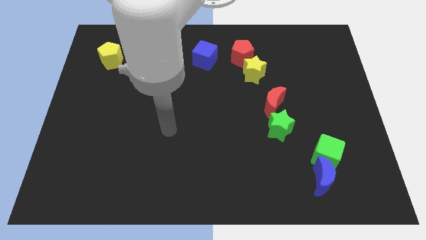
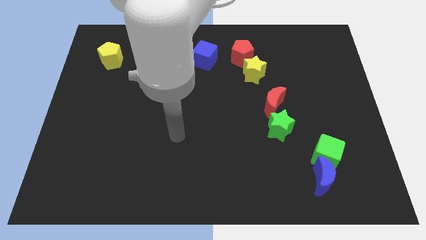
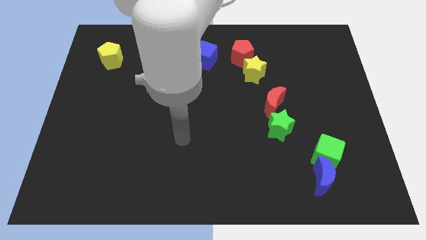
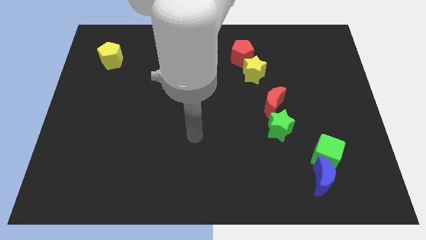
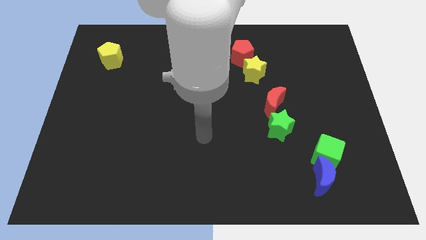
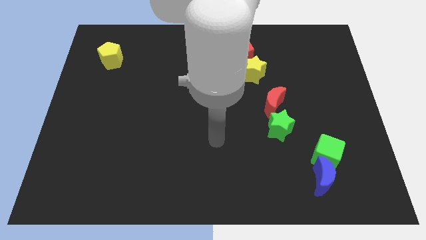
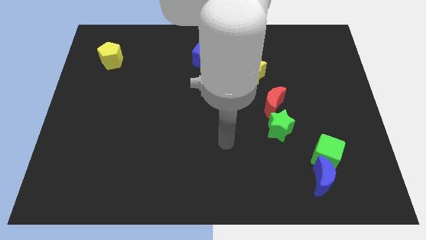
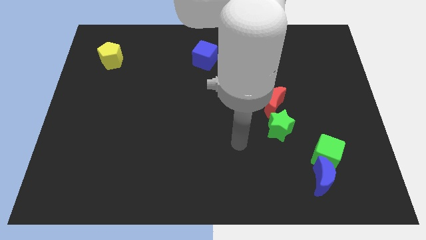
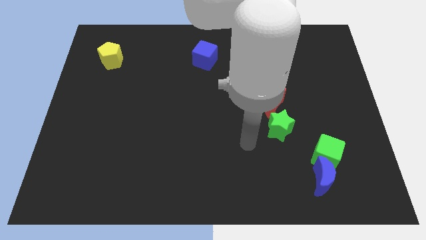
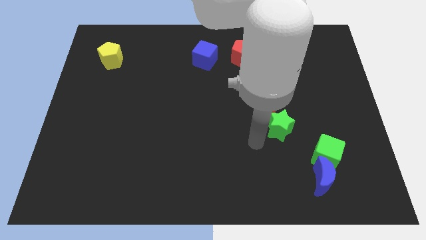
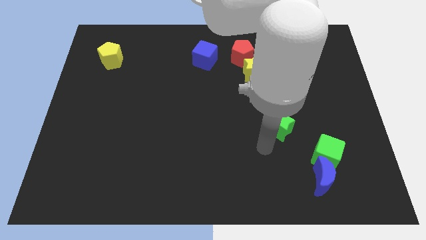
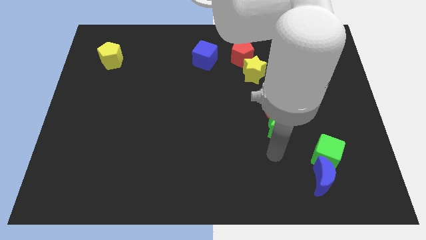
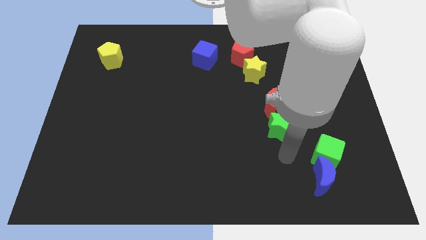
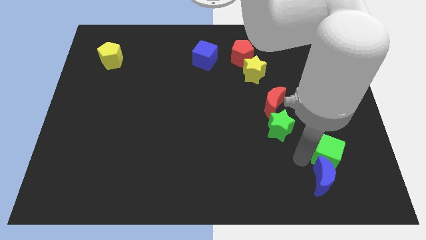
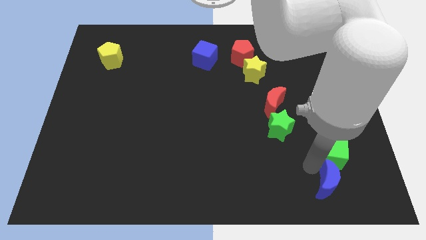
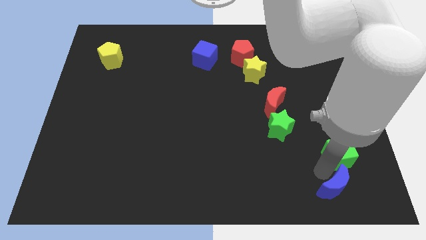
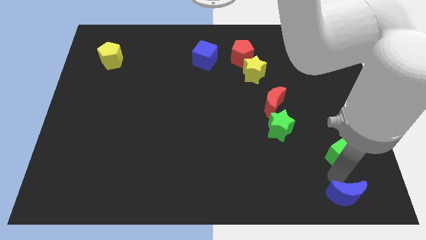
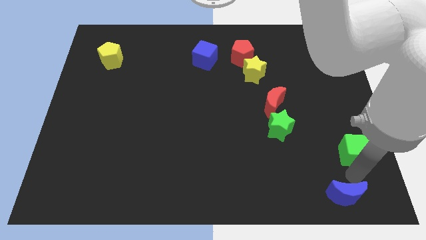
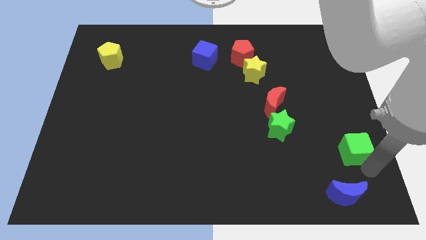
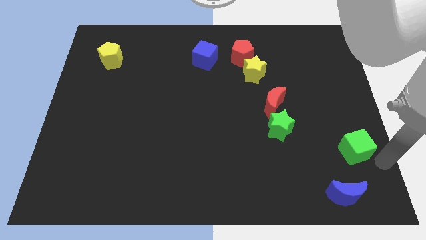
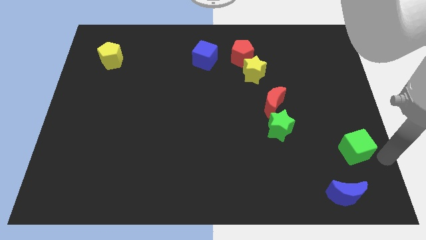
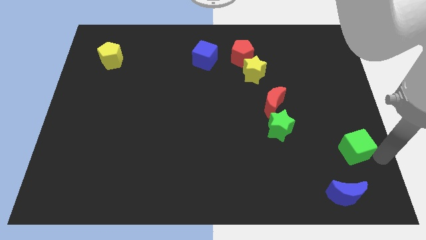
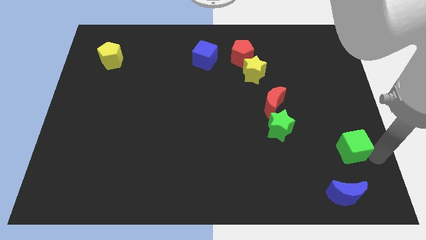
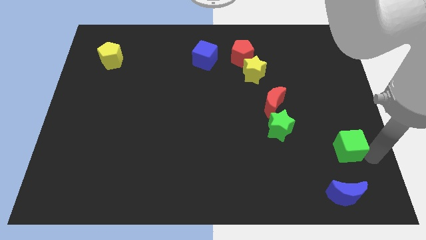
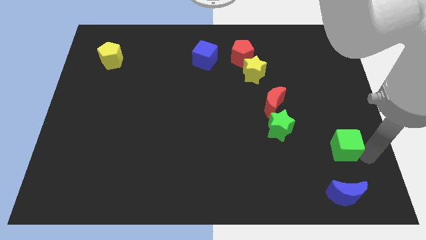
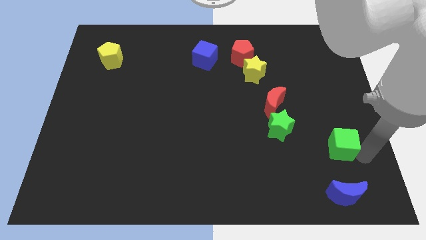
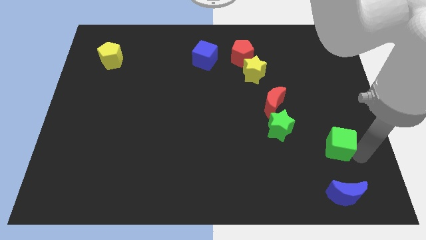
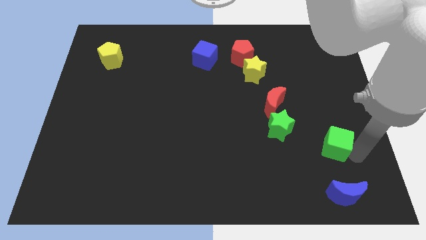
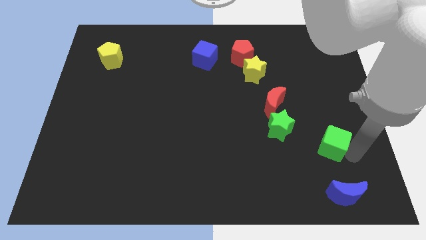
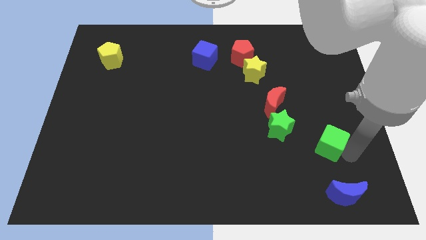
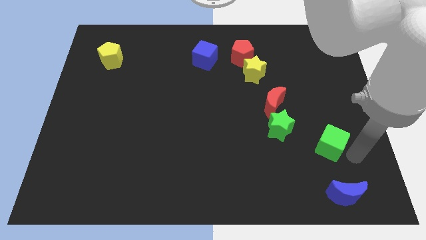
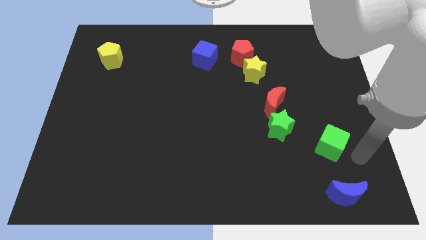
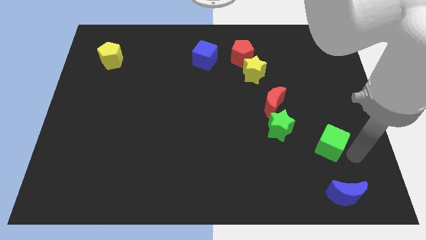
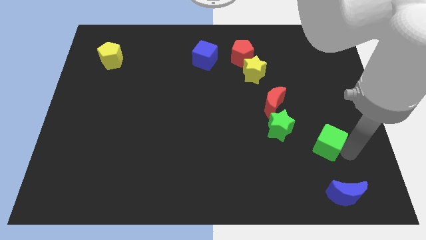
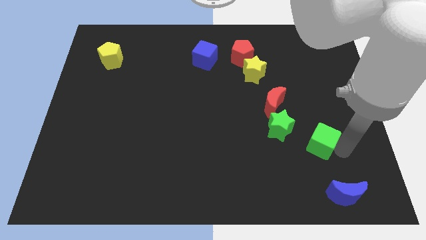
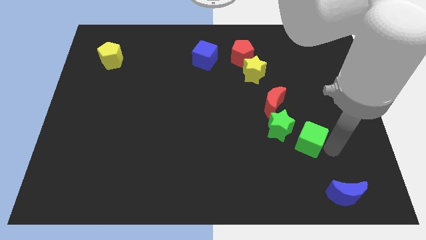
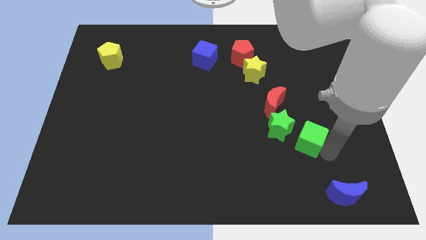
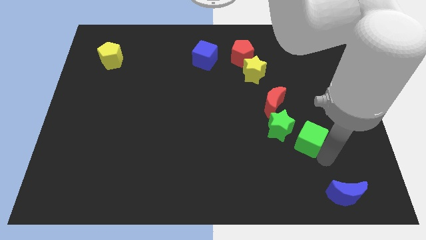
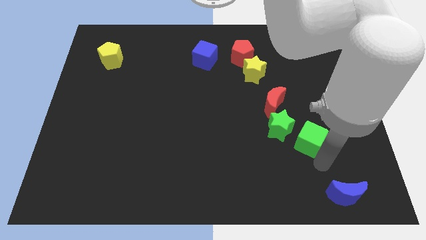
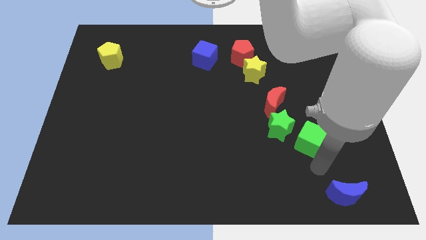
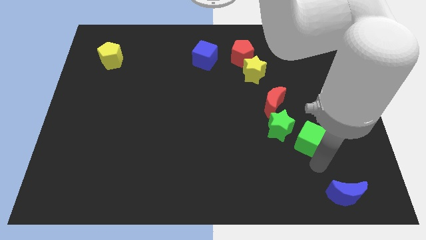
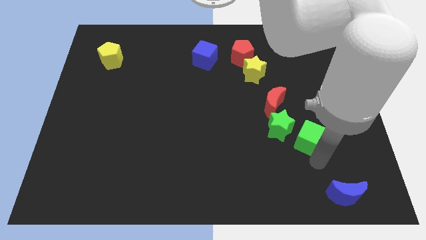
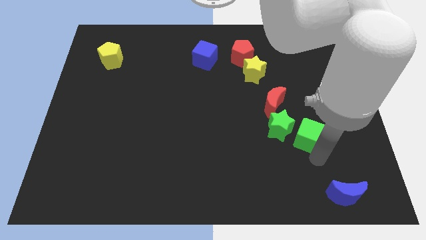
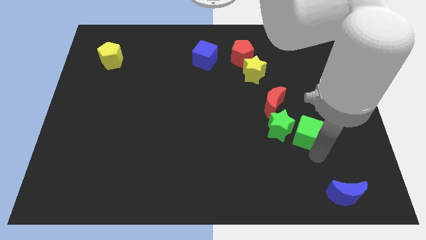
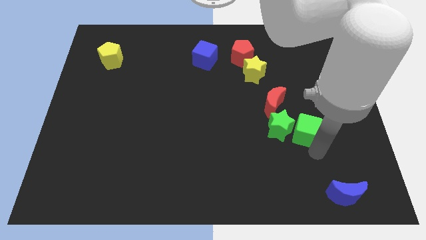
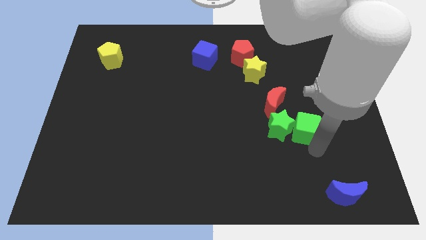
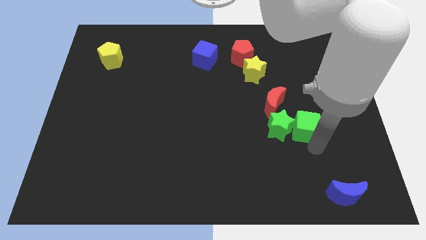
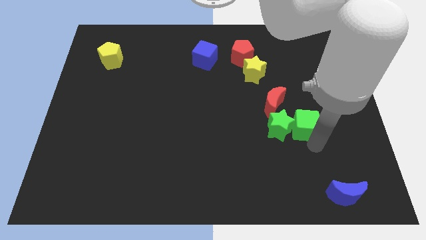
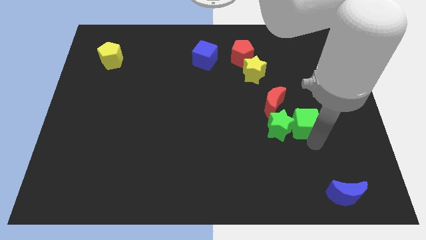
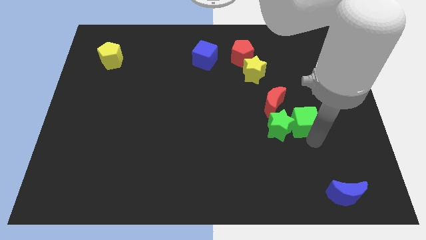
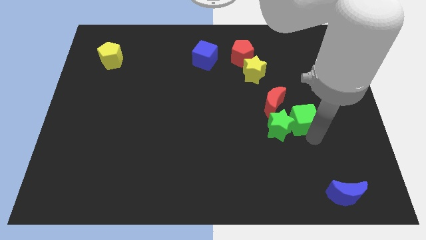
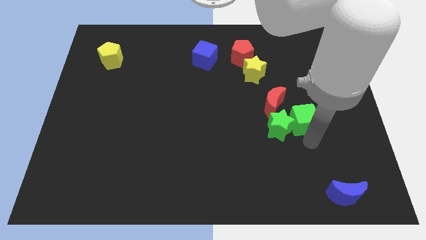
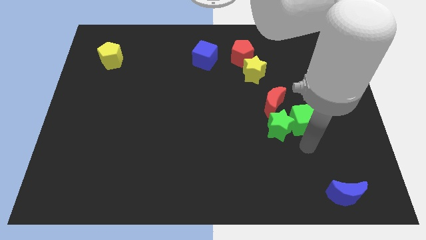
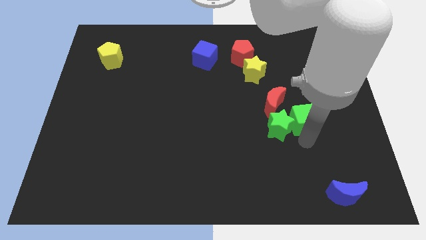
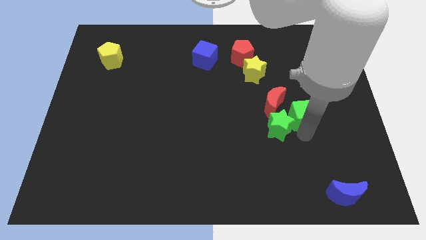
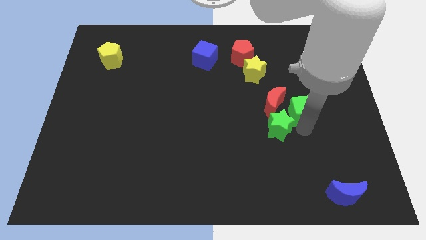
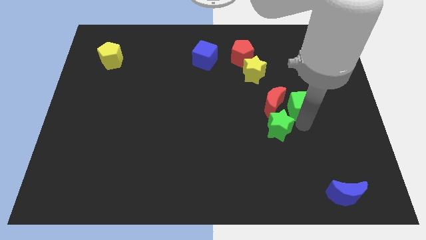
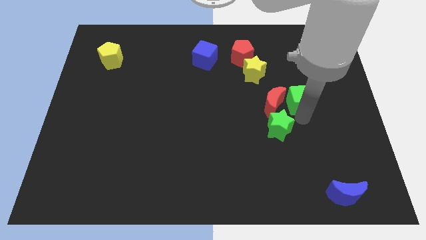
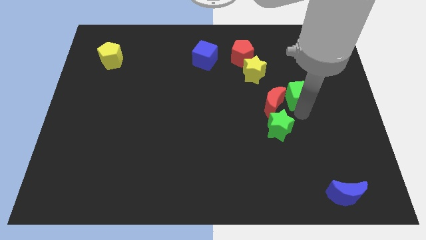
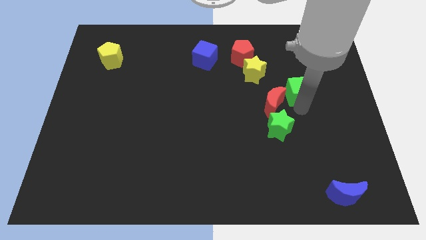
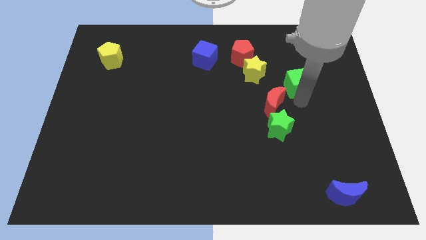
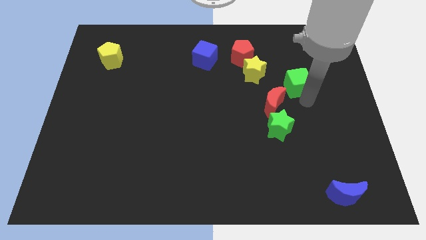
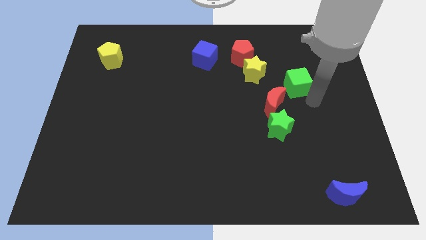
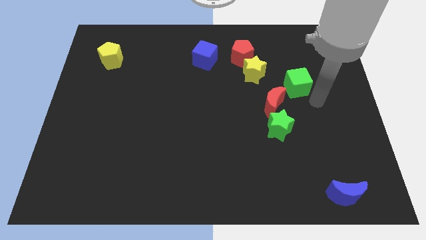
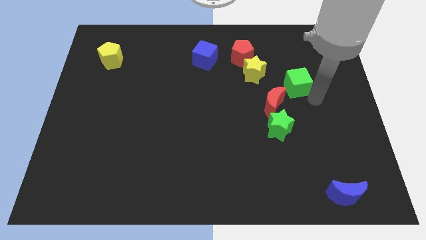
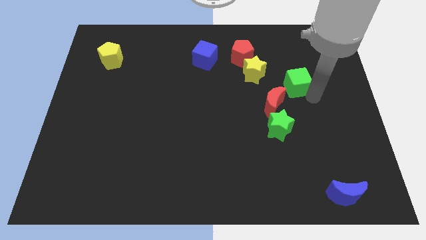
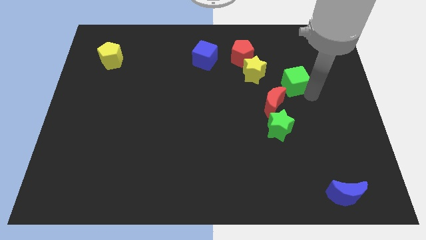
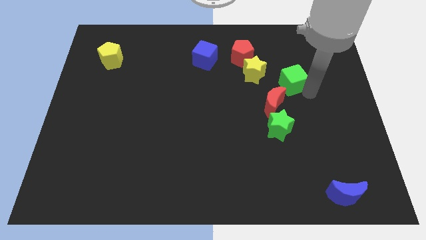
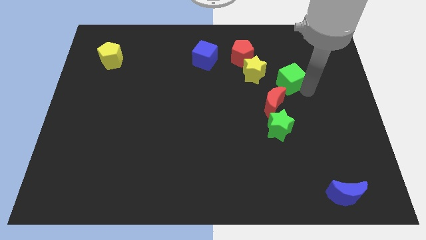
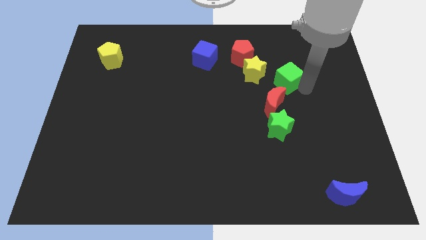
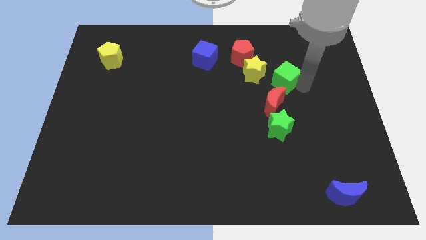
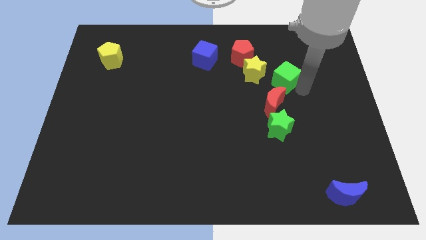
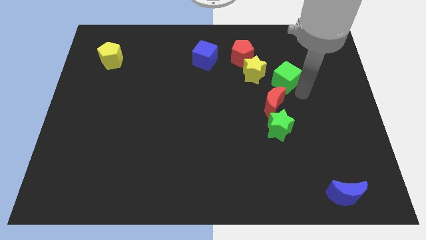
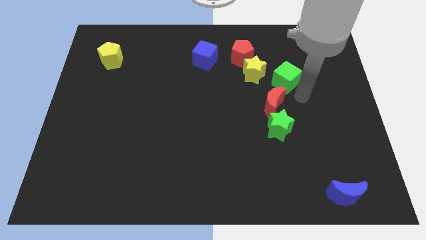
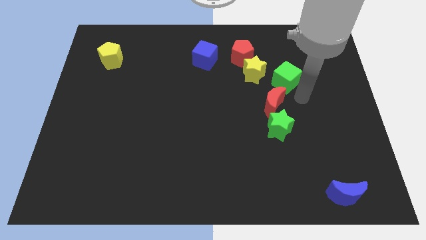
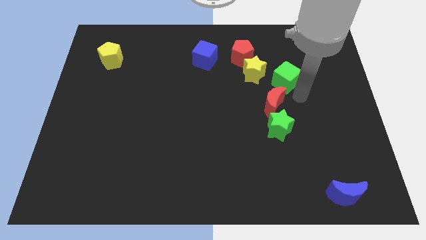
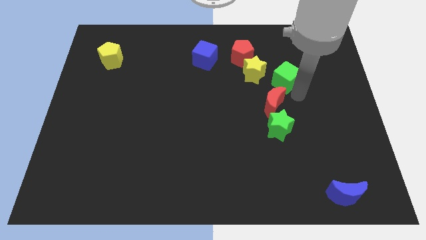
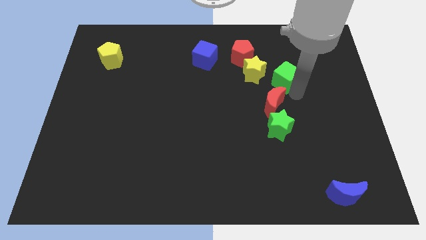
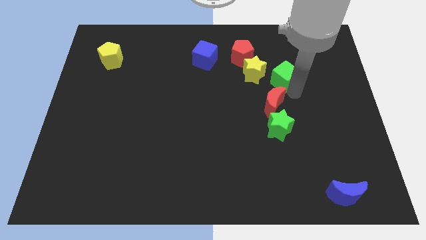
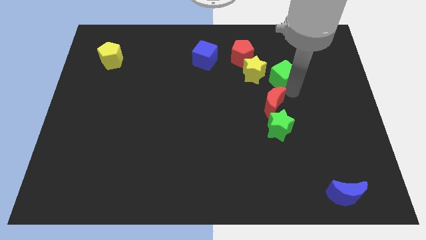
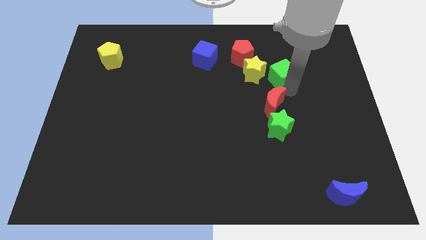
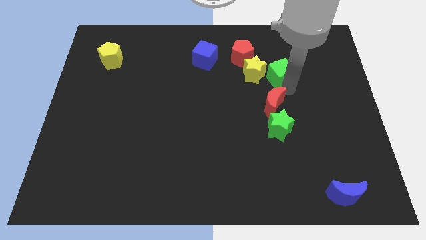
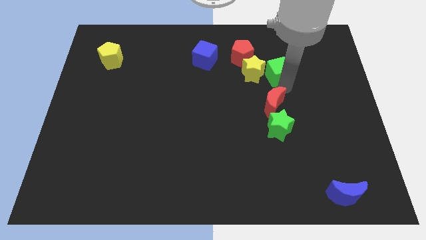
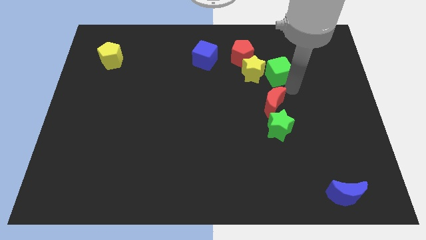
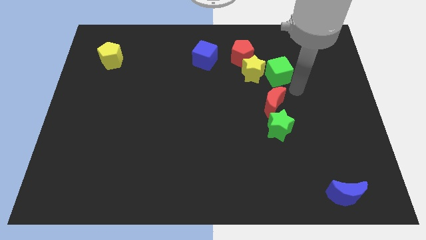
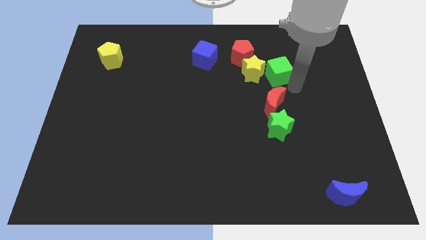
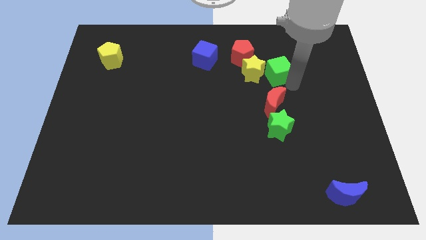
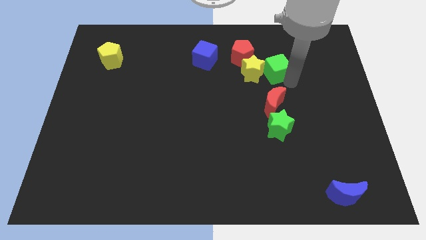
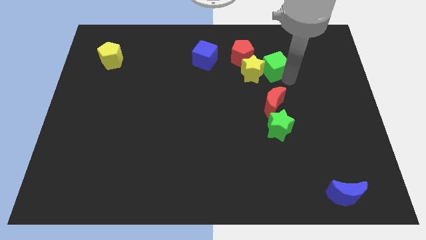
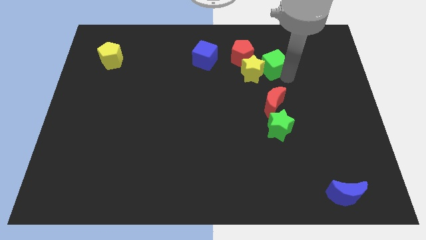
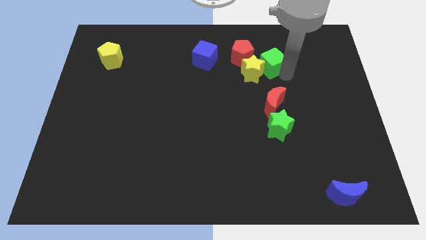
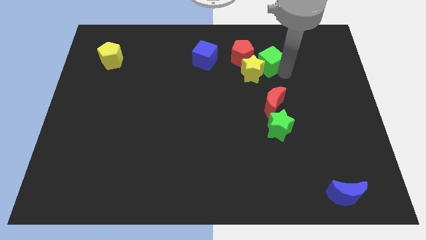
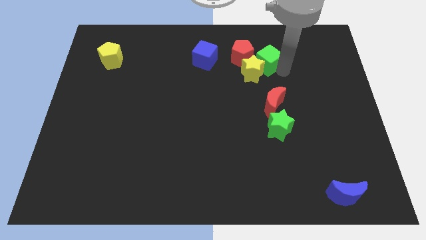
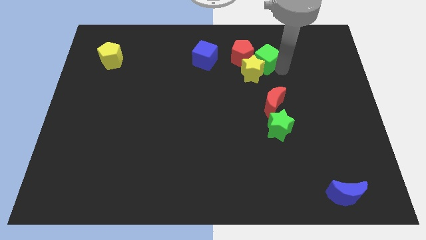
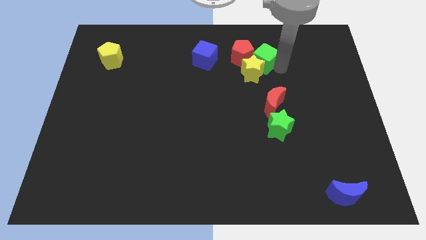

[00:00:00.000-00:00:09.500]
move the green cube towards the red pentagon
